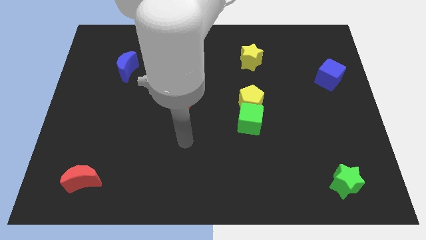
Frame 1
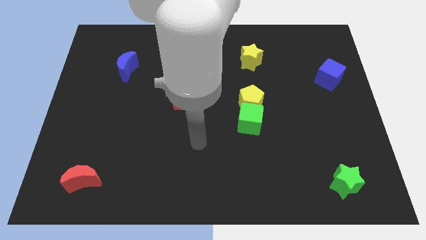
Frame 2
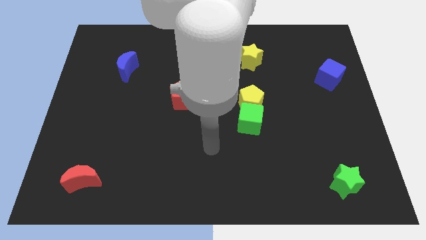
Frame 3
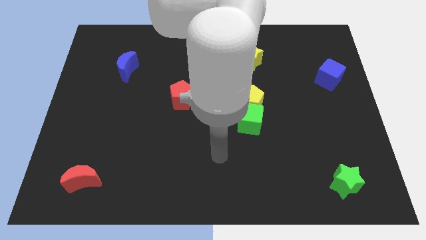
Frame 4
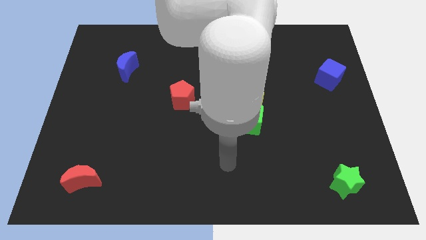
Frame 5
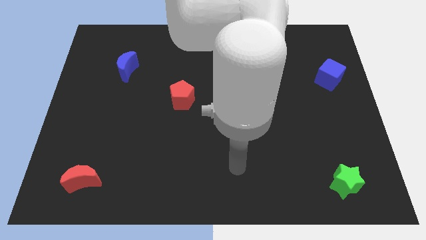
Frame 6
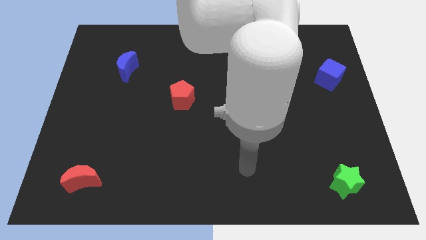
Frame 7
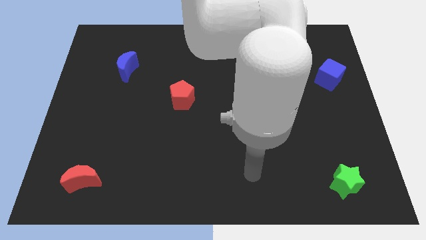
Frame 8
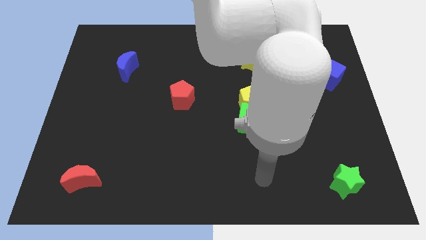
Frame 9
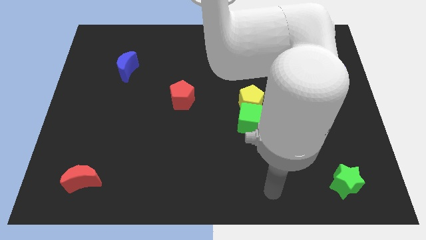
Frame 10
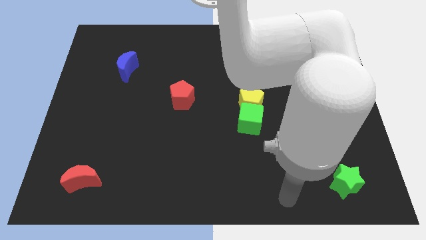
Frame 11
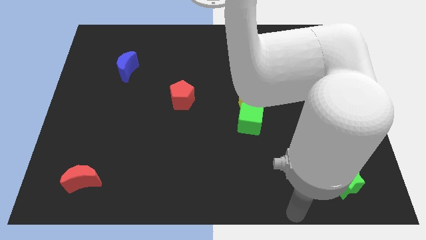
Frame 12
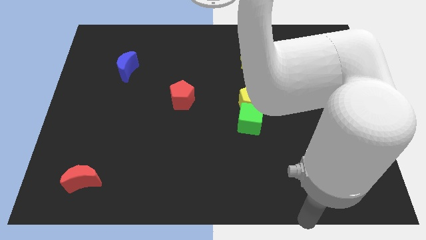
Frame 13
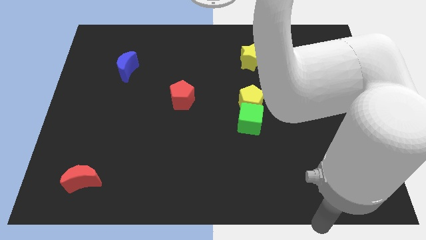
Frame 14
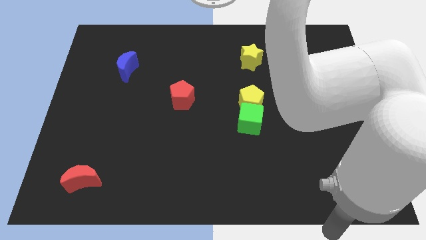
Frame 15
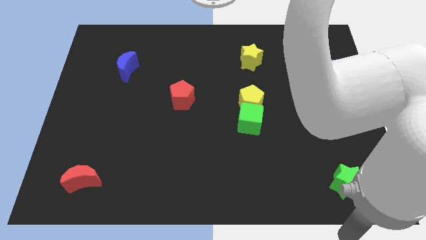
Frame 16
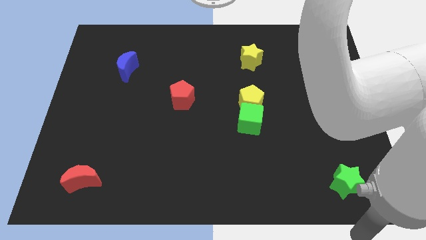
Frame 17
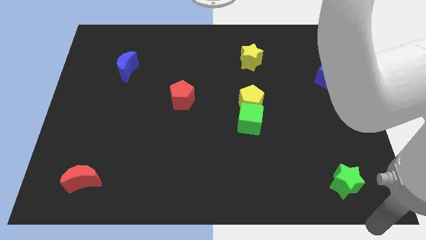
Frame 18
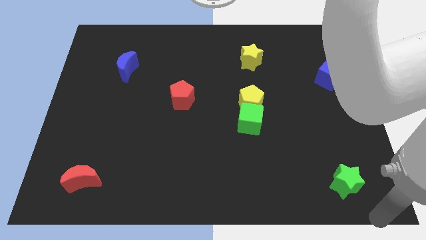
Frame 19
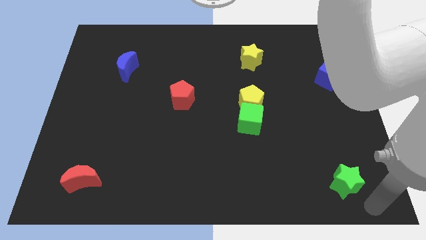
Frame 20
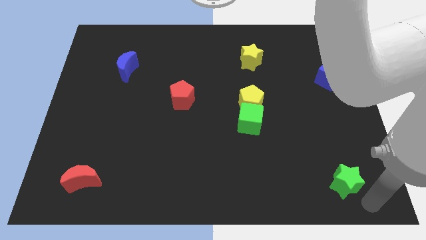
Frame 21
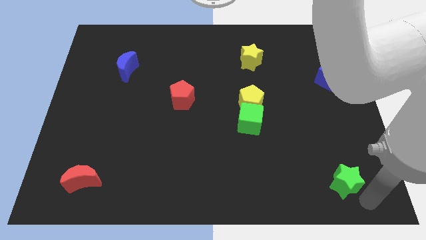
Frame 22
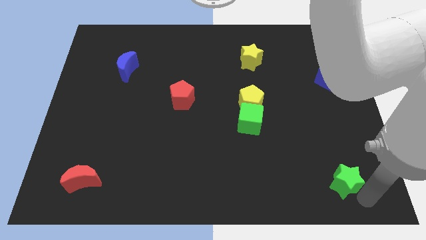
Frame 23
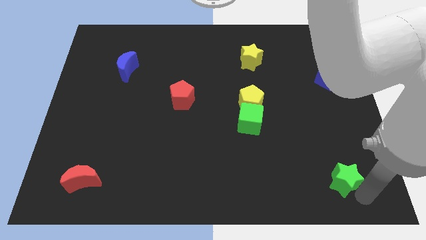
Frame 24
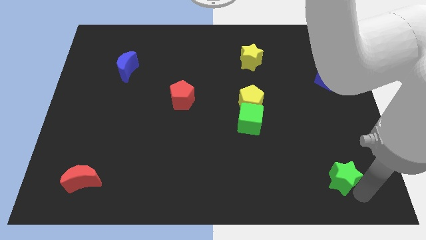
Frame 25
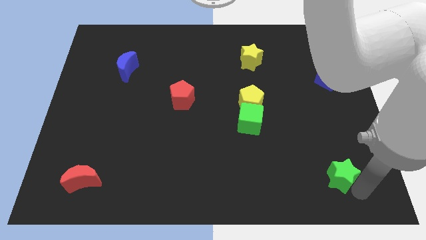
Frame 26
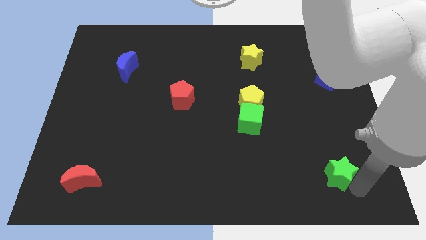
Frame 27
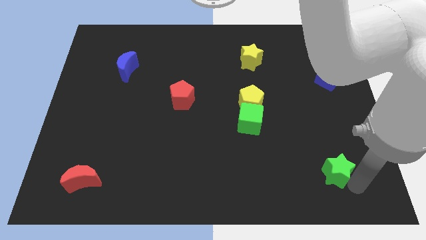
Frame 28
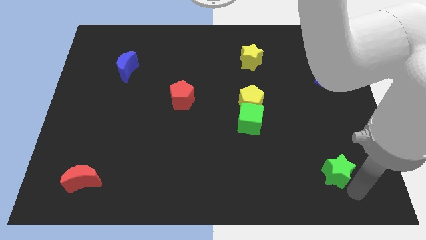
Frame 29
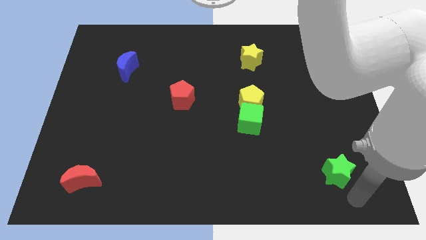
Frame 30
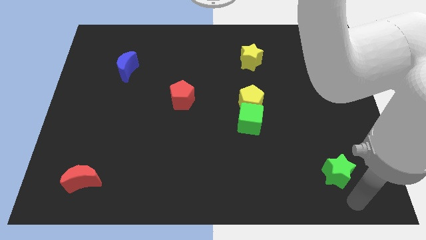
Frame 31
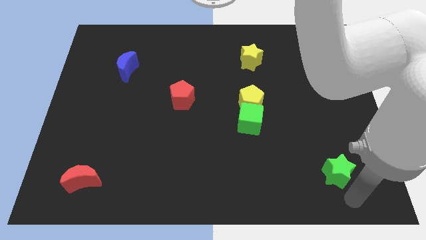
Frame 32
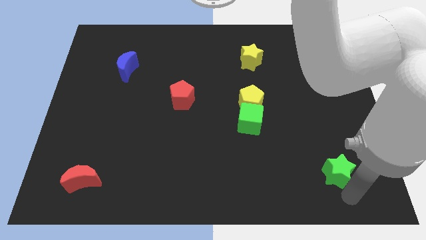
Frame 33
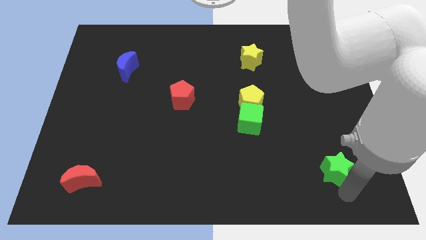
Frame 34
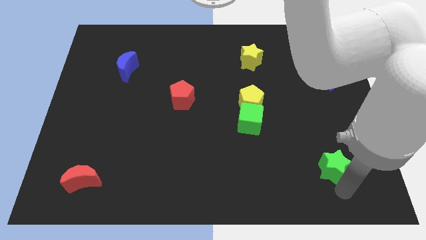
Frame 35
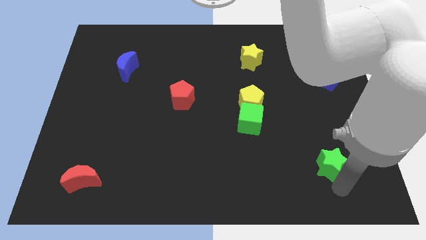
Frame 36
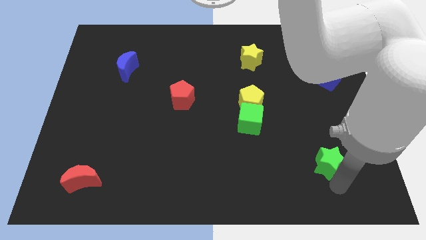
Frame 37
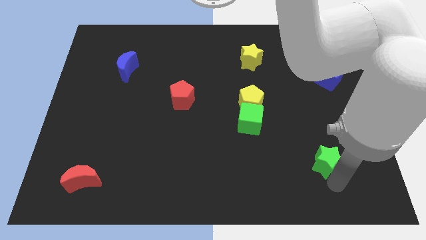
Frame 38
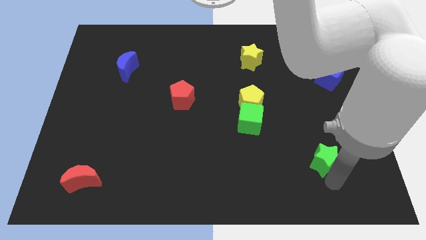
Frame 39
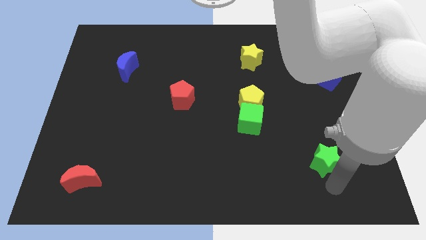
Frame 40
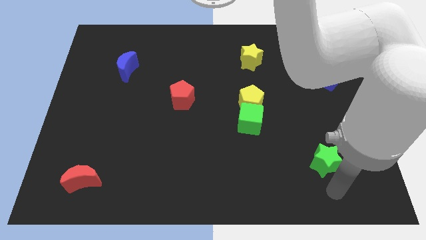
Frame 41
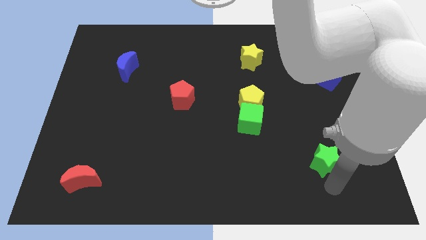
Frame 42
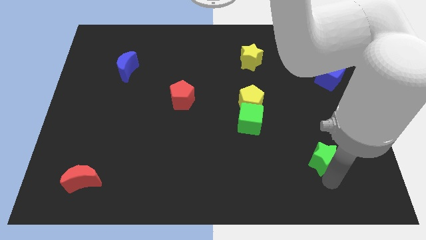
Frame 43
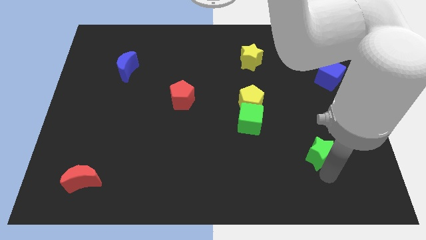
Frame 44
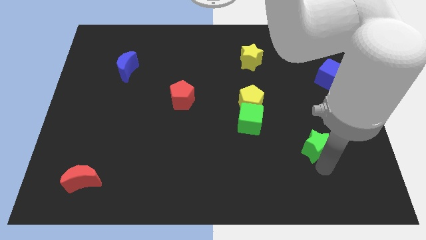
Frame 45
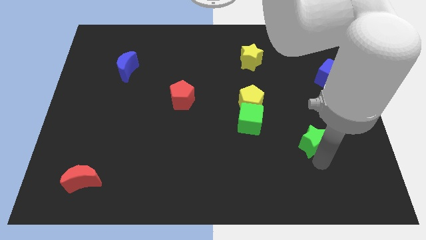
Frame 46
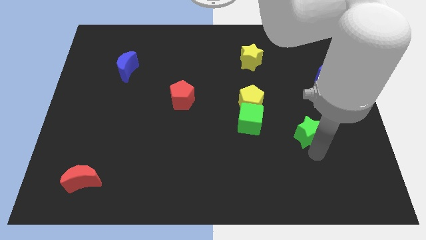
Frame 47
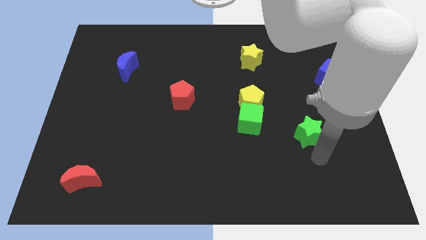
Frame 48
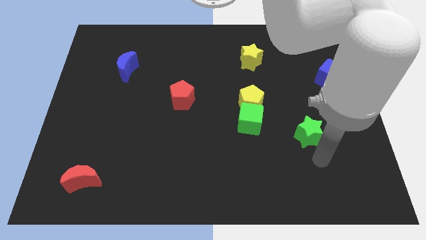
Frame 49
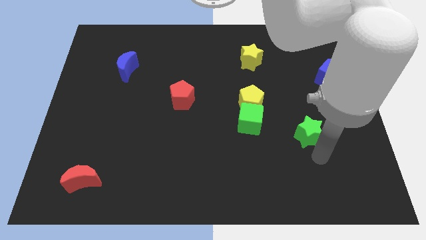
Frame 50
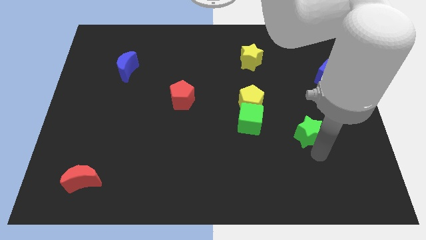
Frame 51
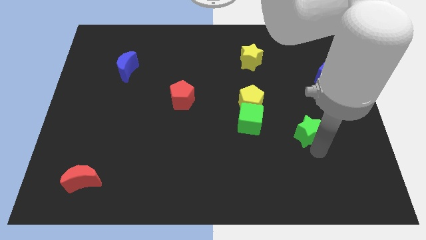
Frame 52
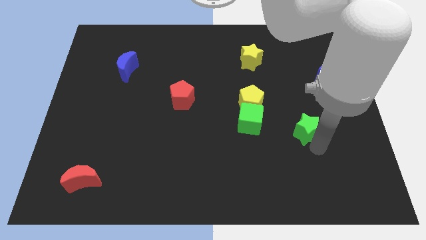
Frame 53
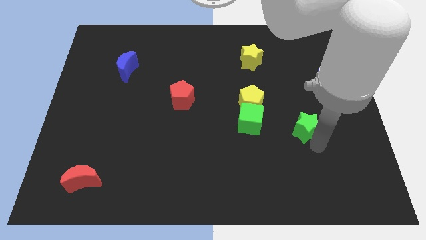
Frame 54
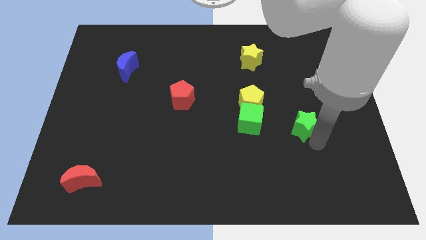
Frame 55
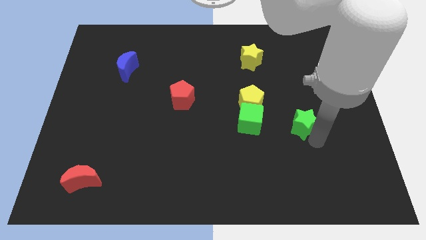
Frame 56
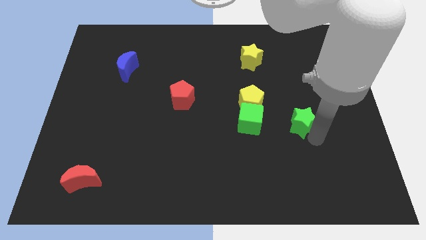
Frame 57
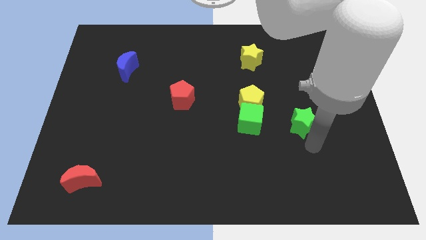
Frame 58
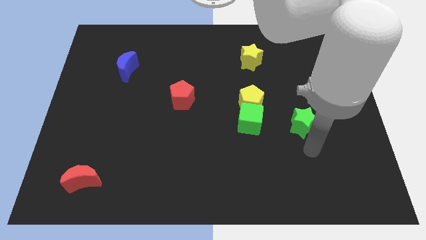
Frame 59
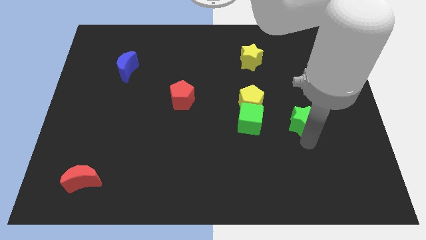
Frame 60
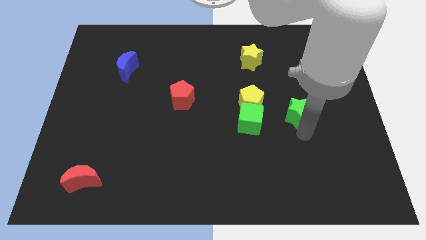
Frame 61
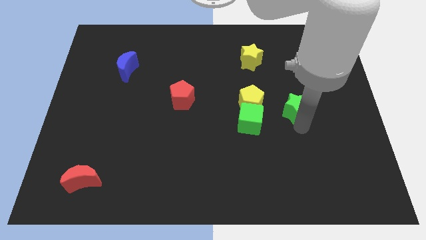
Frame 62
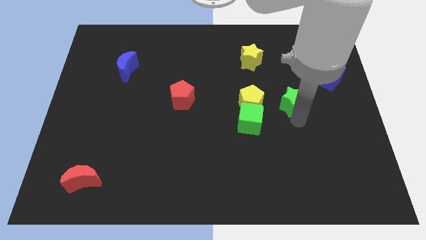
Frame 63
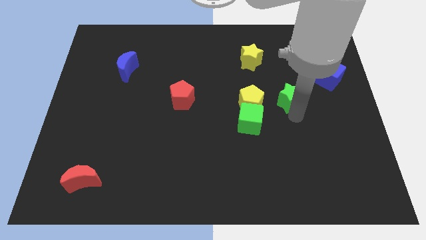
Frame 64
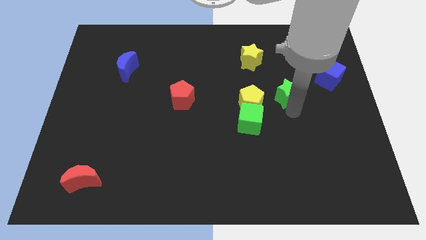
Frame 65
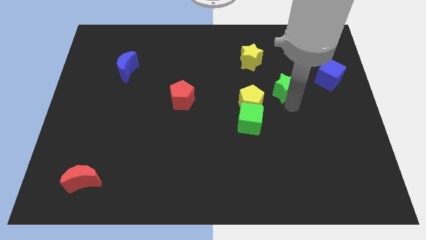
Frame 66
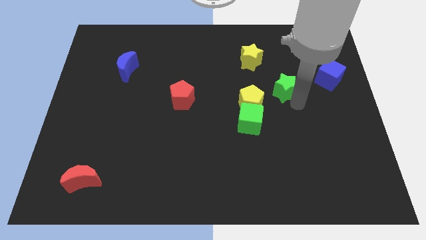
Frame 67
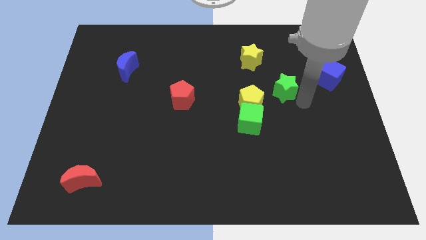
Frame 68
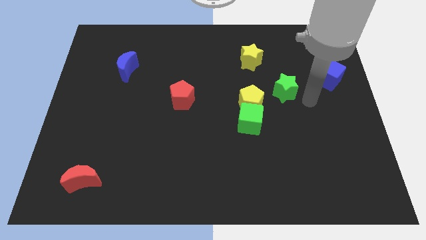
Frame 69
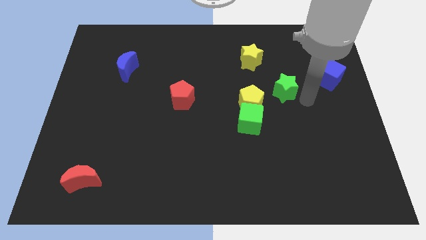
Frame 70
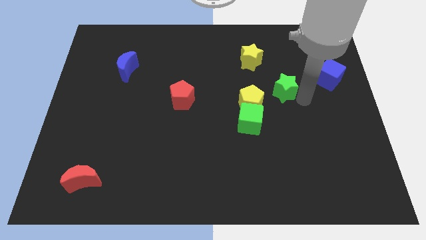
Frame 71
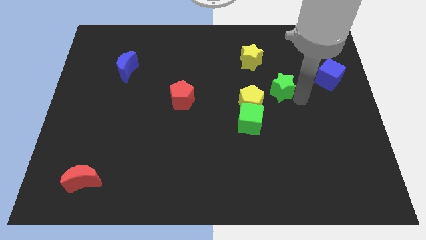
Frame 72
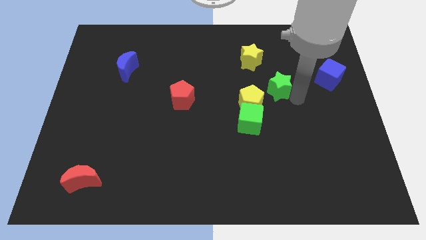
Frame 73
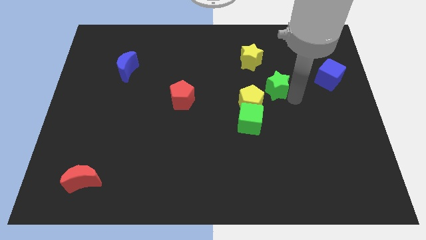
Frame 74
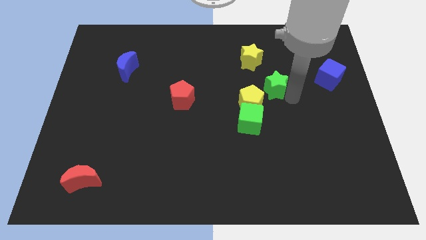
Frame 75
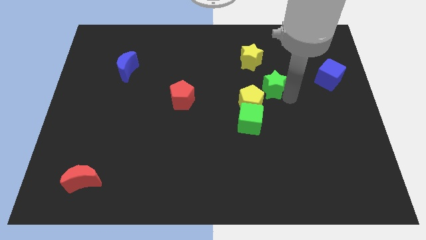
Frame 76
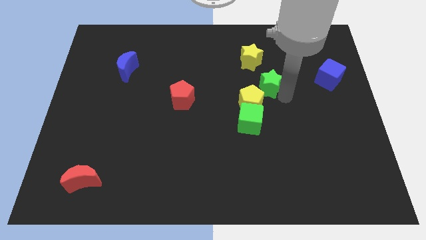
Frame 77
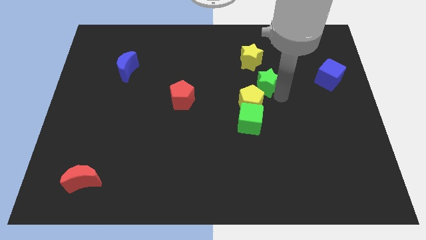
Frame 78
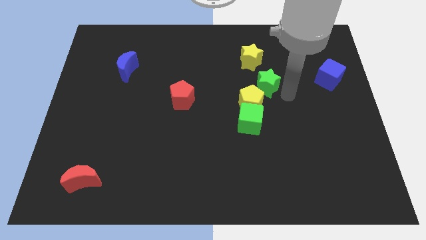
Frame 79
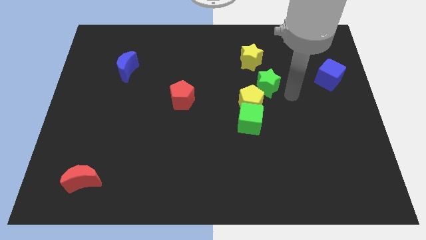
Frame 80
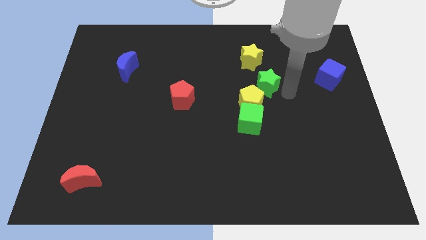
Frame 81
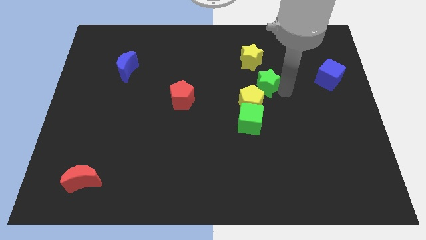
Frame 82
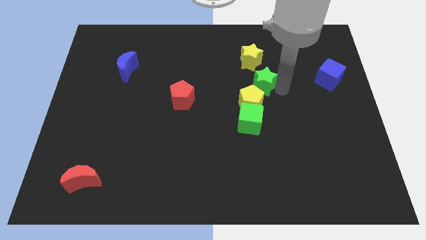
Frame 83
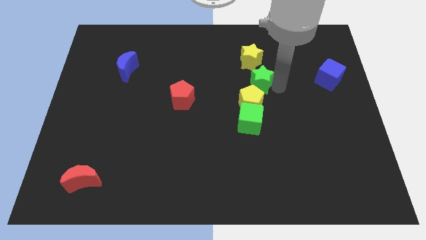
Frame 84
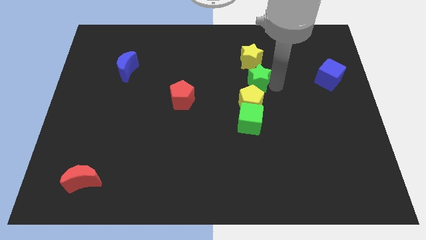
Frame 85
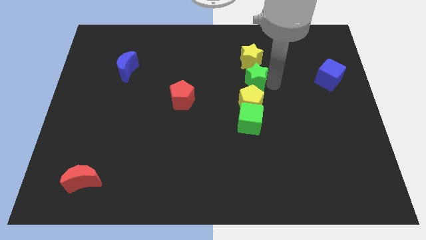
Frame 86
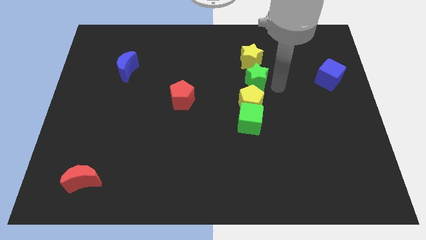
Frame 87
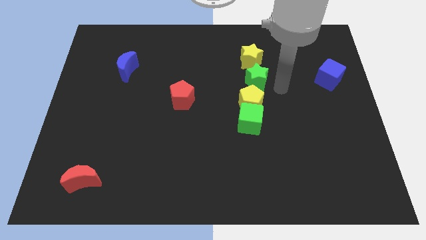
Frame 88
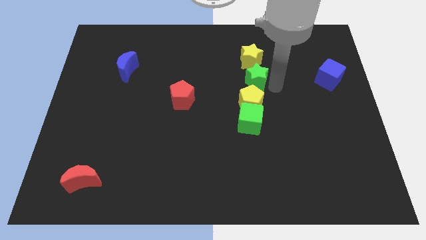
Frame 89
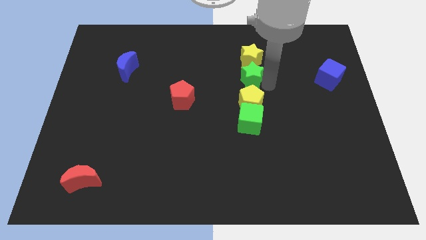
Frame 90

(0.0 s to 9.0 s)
move the green star to the bottom left side of the yellow star
